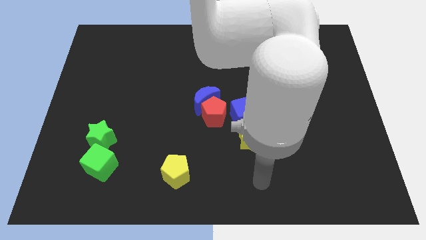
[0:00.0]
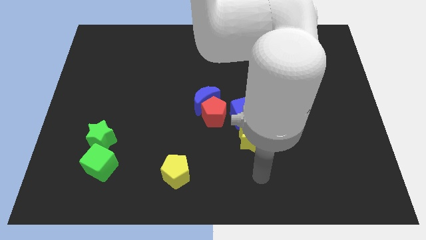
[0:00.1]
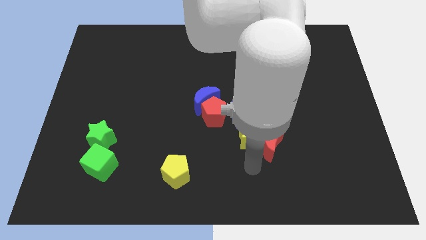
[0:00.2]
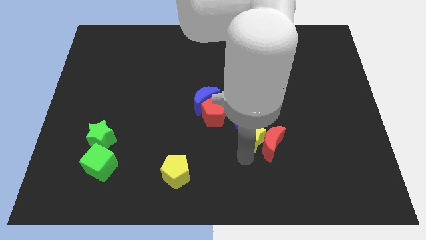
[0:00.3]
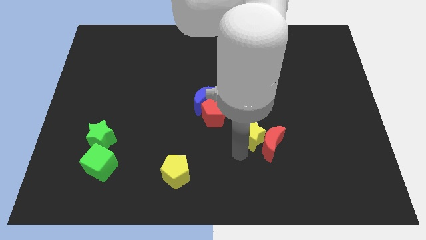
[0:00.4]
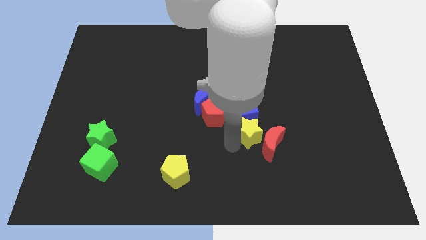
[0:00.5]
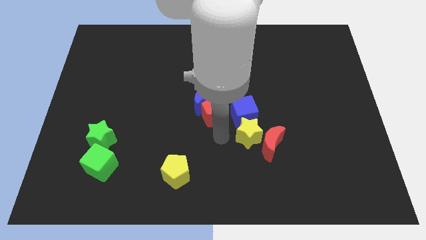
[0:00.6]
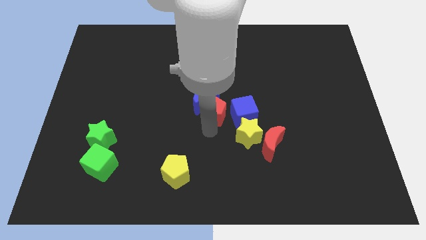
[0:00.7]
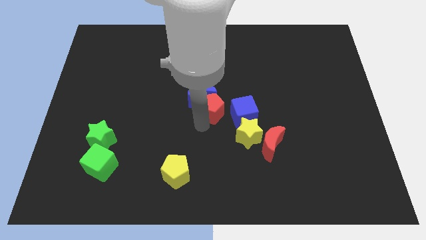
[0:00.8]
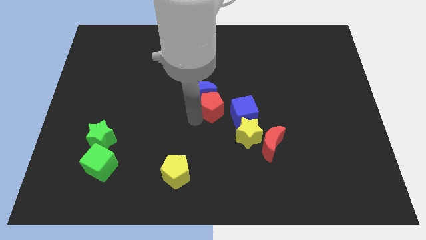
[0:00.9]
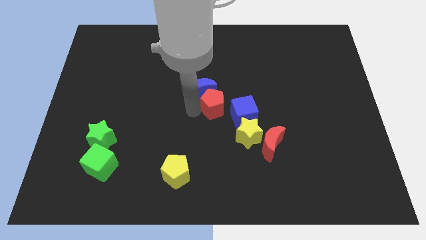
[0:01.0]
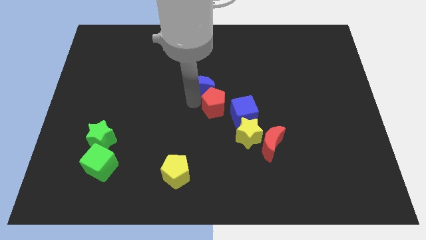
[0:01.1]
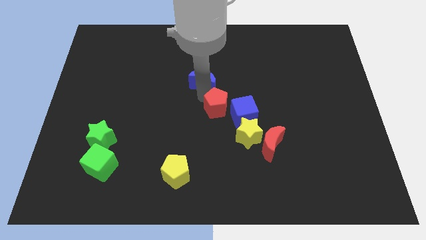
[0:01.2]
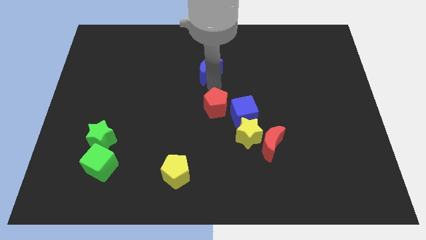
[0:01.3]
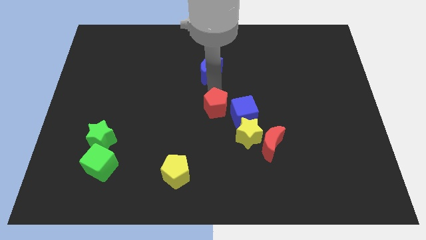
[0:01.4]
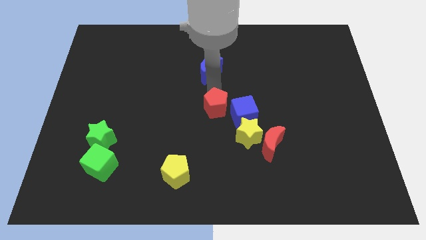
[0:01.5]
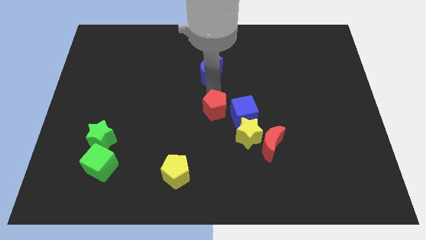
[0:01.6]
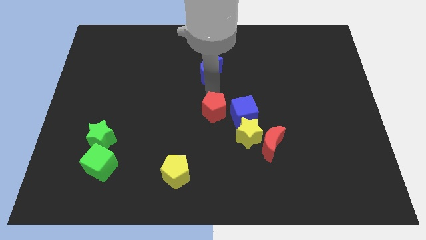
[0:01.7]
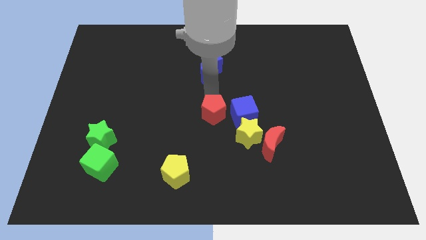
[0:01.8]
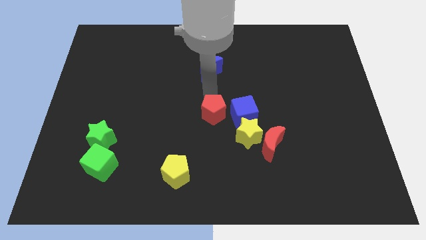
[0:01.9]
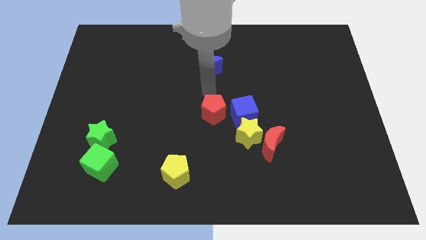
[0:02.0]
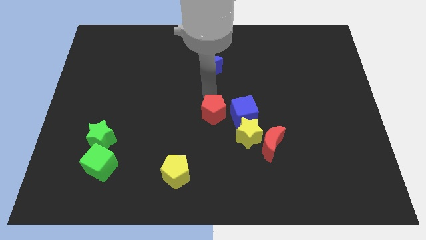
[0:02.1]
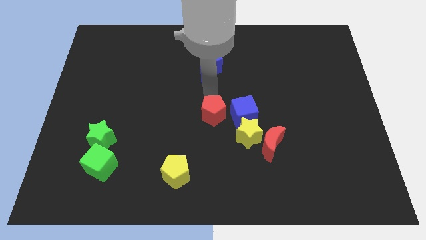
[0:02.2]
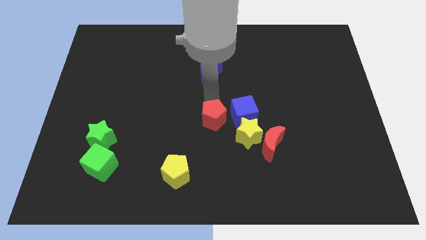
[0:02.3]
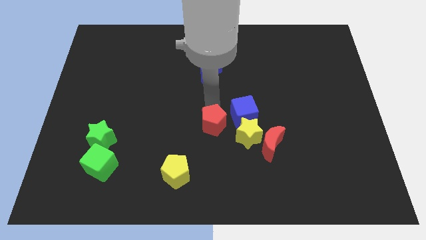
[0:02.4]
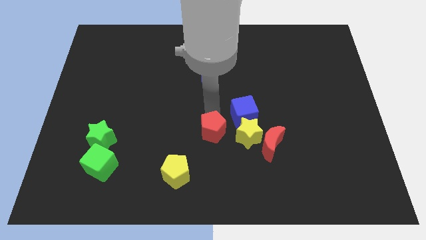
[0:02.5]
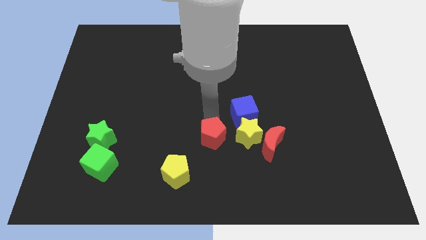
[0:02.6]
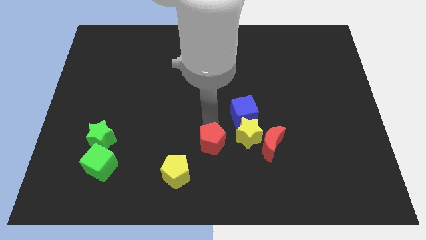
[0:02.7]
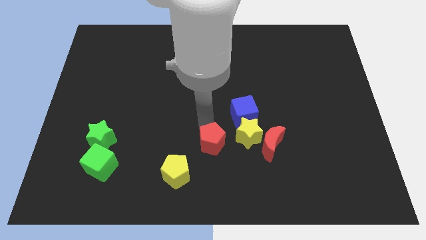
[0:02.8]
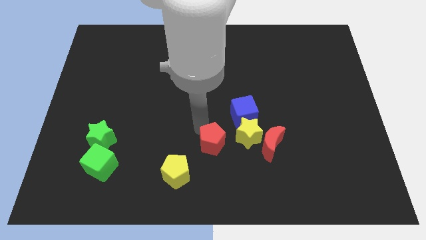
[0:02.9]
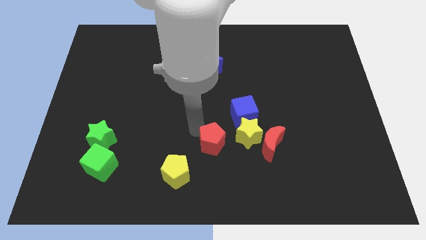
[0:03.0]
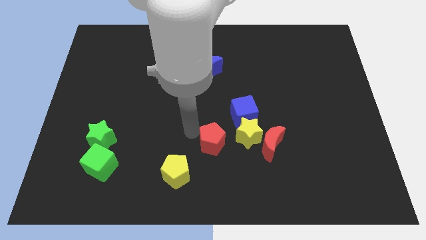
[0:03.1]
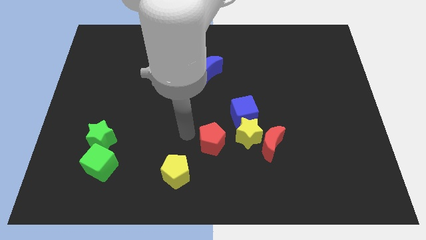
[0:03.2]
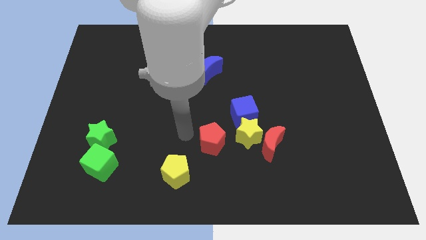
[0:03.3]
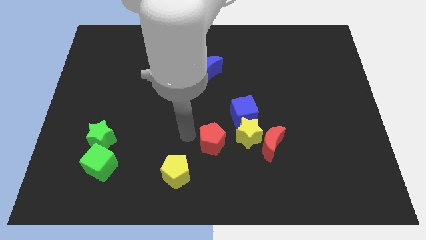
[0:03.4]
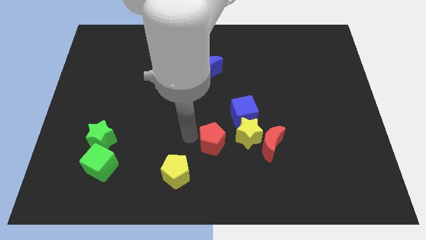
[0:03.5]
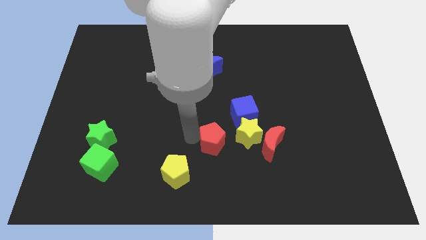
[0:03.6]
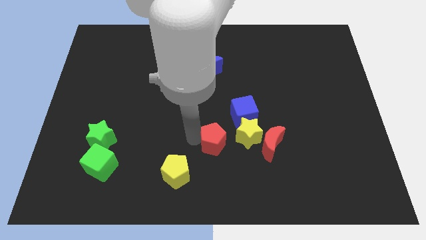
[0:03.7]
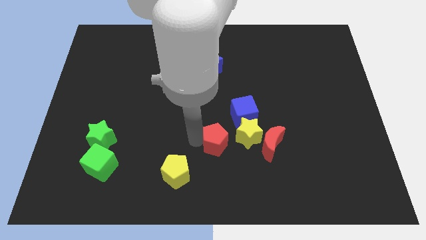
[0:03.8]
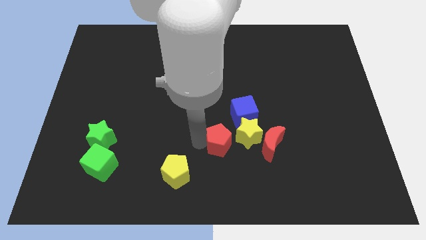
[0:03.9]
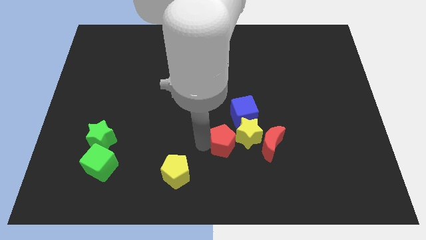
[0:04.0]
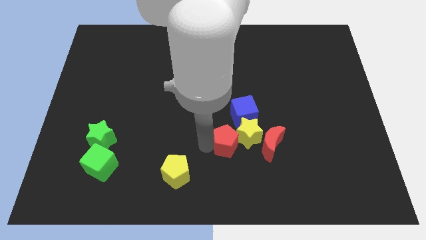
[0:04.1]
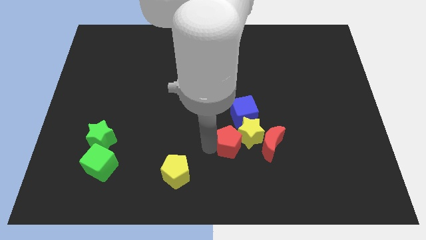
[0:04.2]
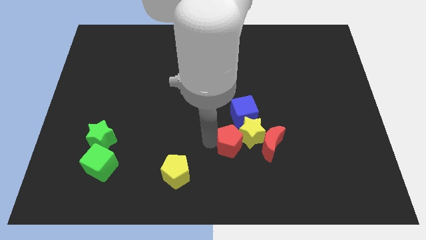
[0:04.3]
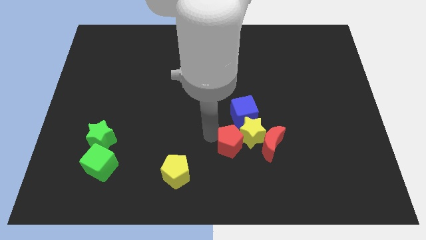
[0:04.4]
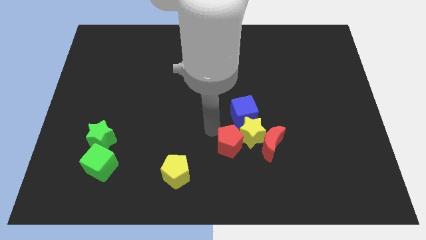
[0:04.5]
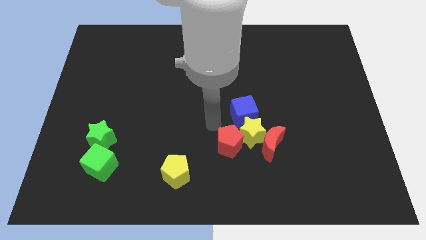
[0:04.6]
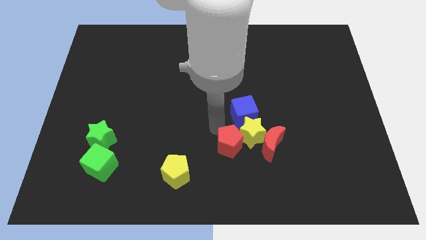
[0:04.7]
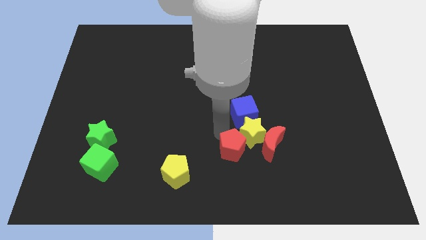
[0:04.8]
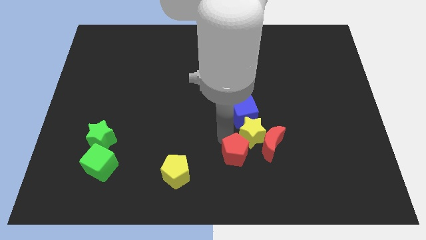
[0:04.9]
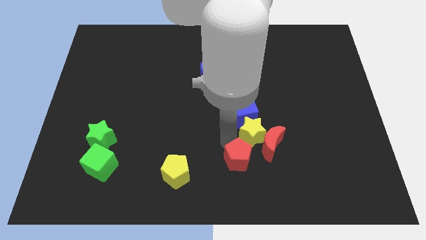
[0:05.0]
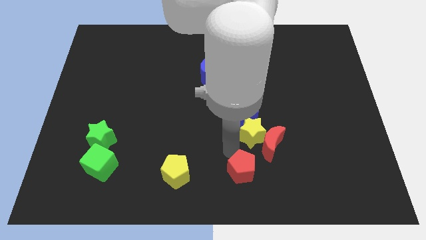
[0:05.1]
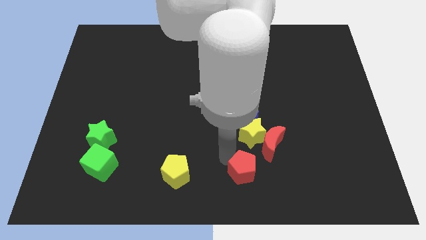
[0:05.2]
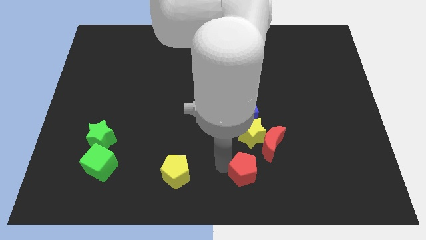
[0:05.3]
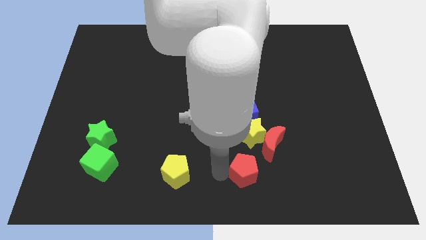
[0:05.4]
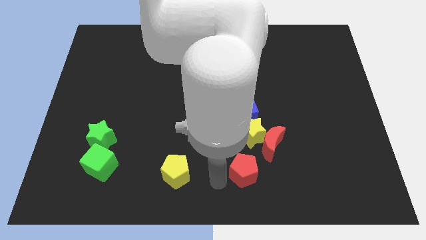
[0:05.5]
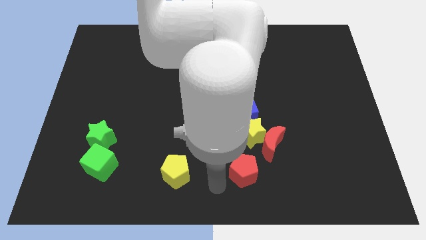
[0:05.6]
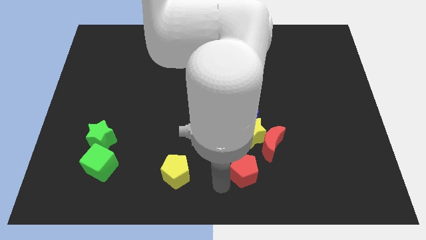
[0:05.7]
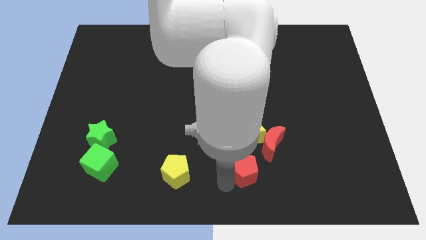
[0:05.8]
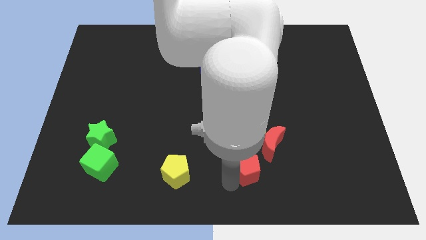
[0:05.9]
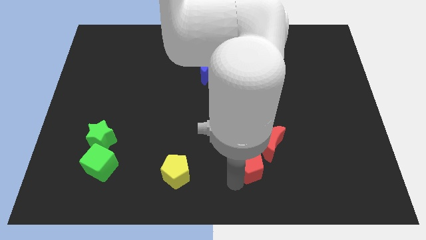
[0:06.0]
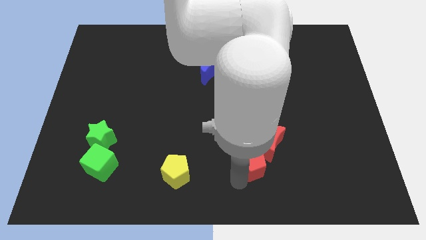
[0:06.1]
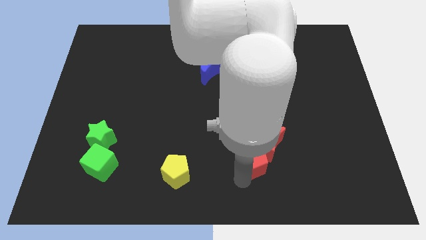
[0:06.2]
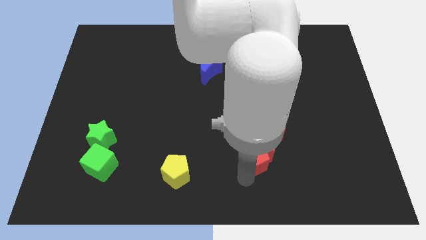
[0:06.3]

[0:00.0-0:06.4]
move the red pentagon to the bottom right side of the yellow star
